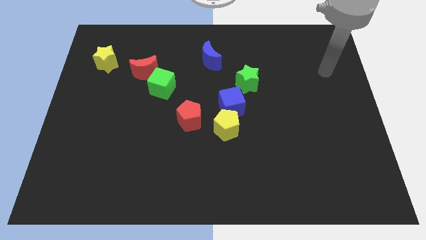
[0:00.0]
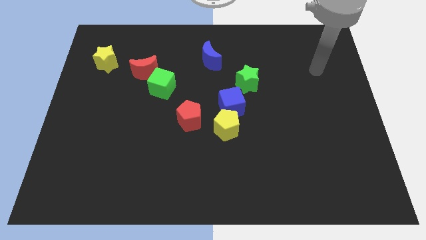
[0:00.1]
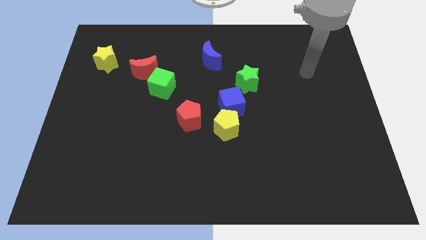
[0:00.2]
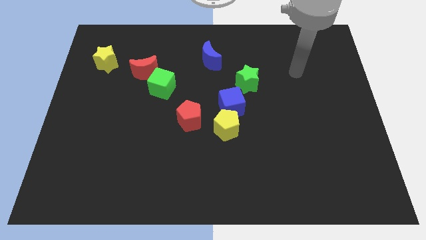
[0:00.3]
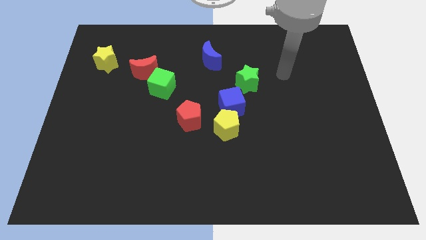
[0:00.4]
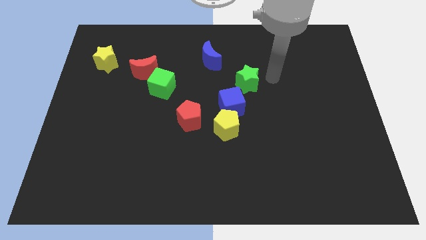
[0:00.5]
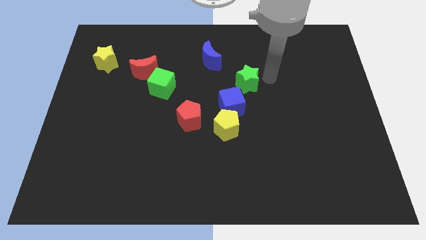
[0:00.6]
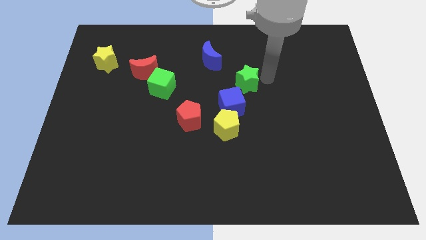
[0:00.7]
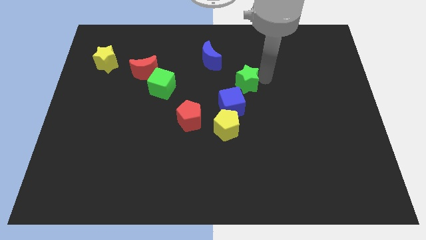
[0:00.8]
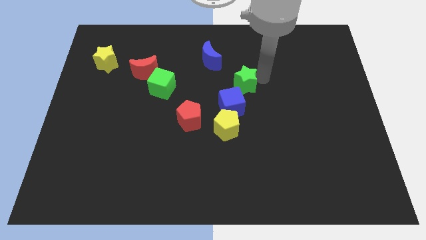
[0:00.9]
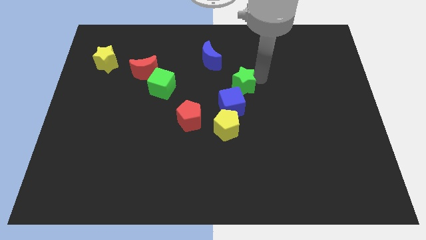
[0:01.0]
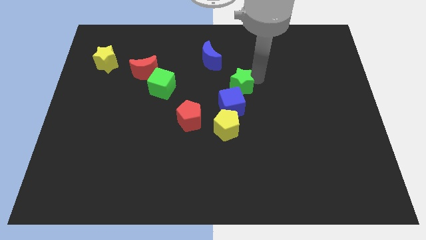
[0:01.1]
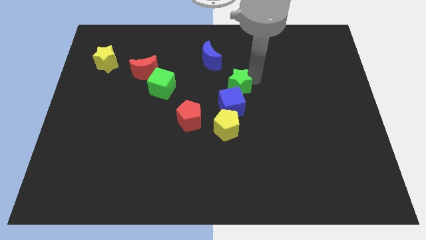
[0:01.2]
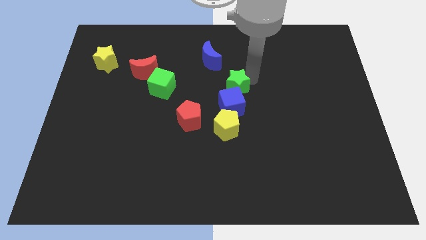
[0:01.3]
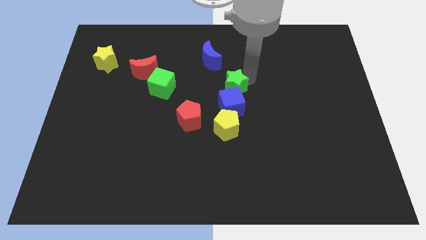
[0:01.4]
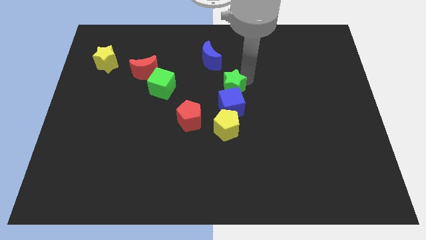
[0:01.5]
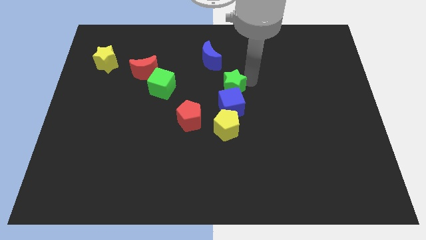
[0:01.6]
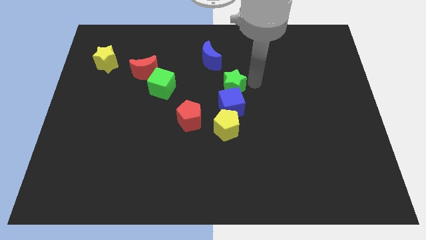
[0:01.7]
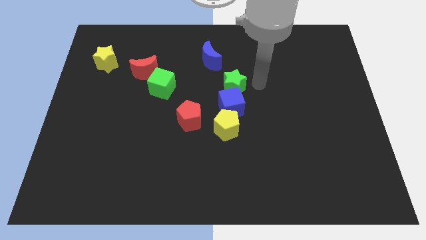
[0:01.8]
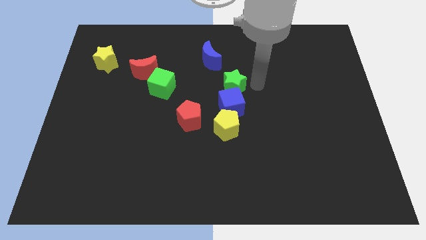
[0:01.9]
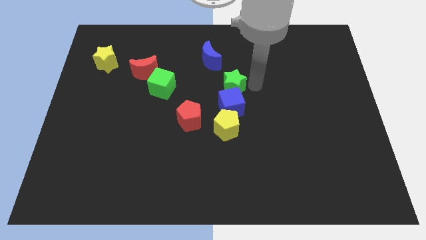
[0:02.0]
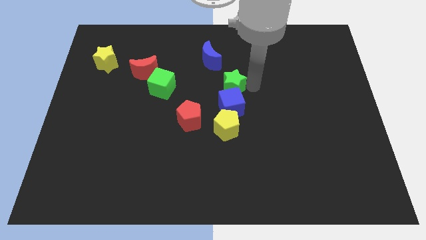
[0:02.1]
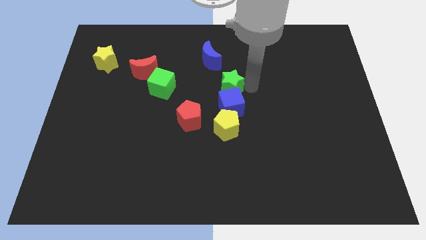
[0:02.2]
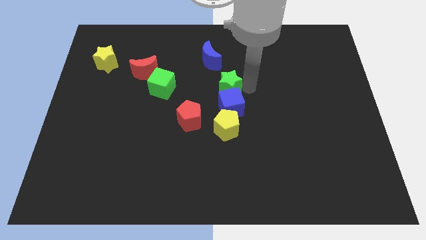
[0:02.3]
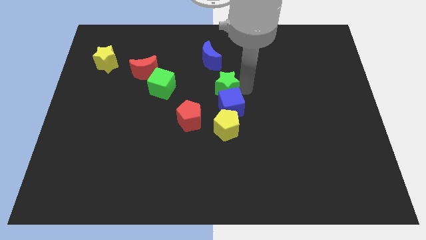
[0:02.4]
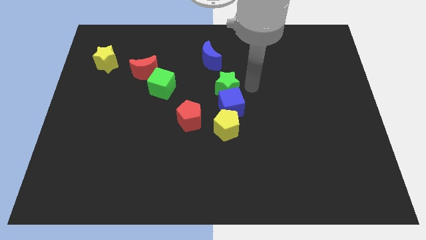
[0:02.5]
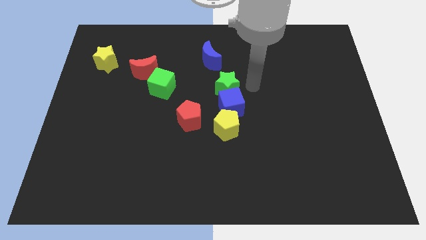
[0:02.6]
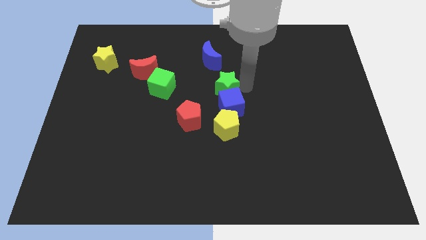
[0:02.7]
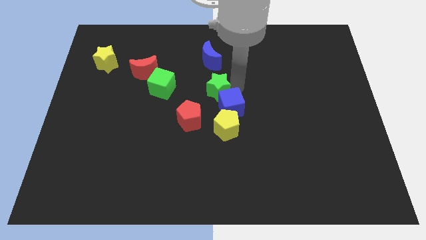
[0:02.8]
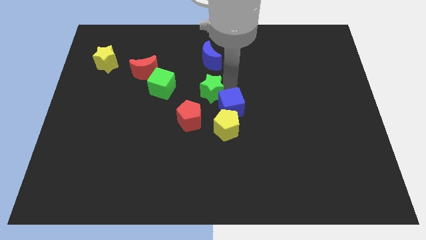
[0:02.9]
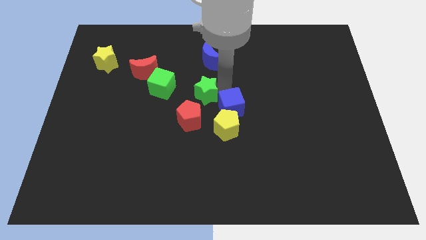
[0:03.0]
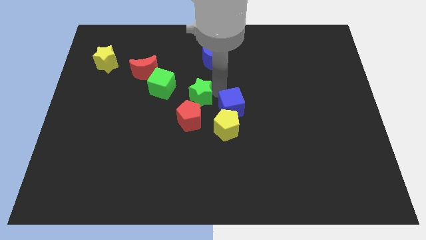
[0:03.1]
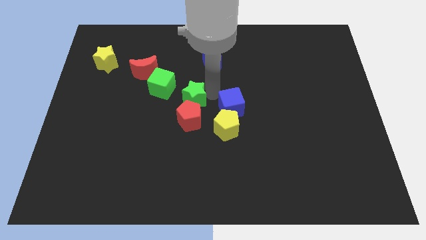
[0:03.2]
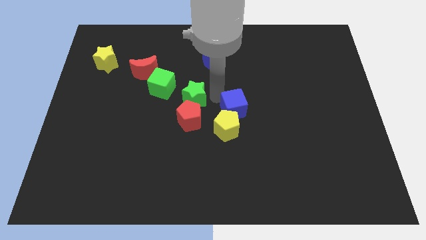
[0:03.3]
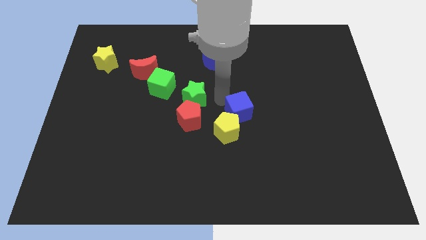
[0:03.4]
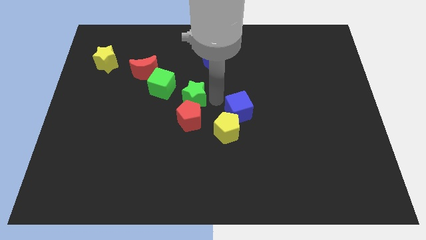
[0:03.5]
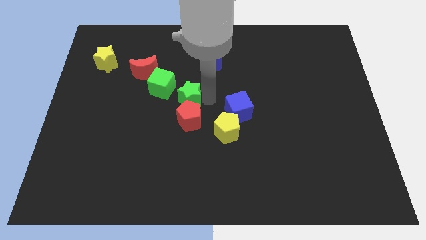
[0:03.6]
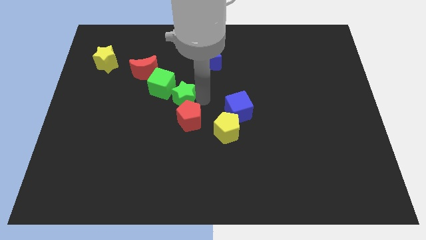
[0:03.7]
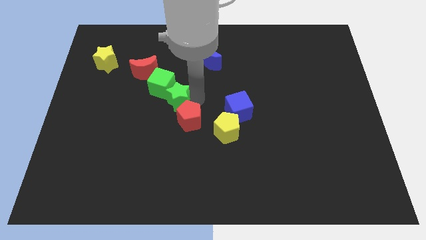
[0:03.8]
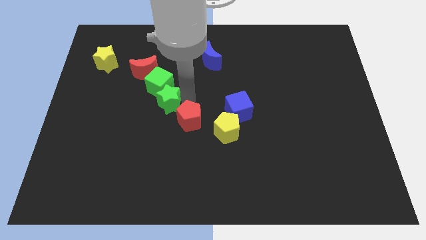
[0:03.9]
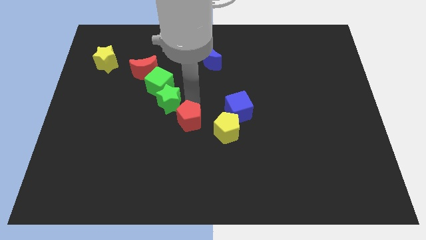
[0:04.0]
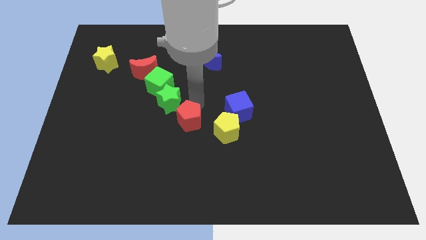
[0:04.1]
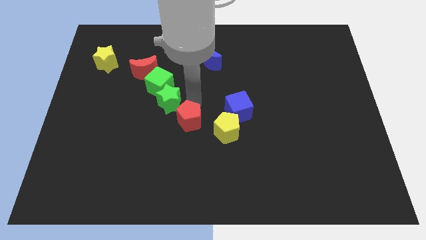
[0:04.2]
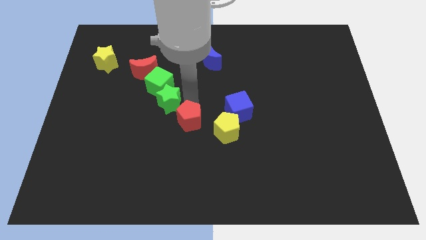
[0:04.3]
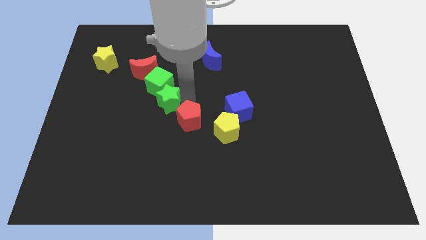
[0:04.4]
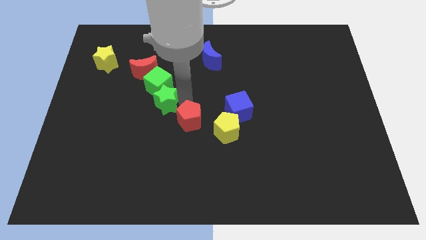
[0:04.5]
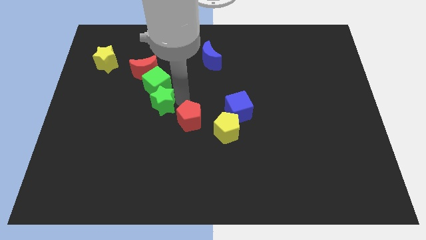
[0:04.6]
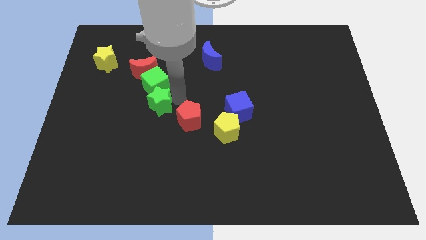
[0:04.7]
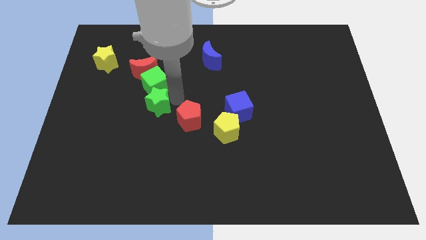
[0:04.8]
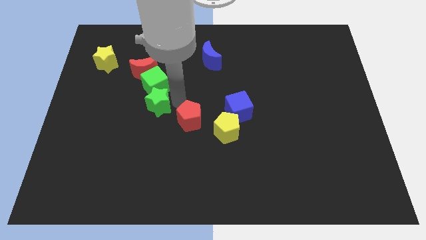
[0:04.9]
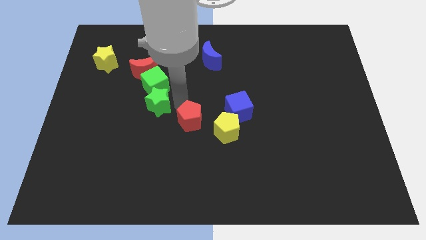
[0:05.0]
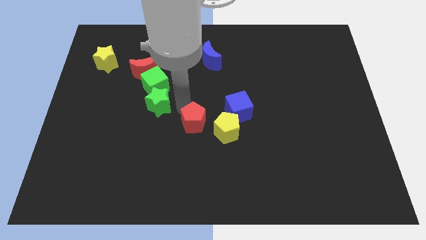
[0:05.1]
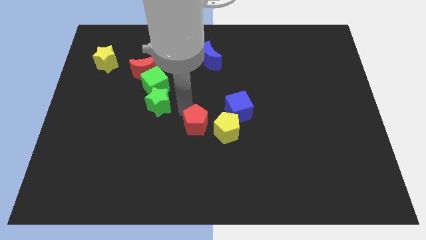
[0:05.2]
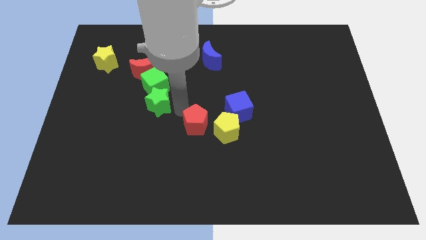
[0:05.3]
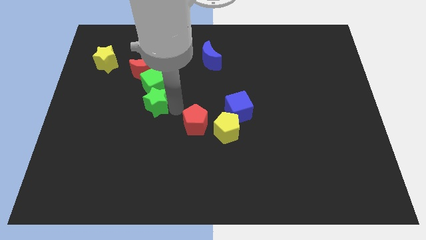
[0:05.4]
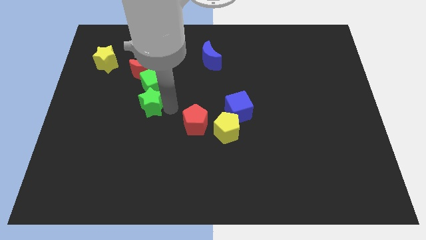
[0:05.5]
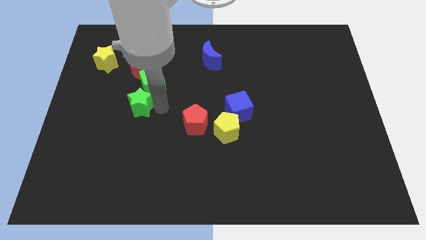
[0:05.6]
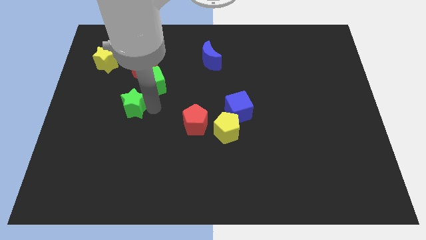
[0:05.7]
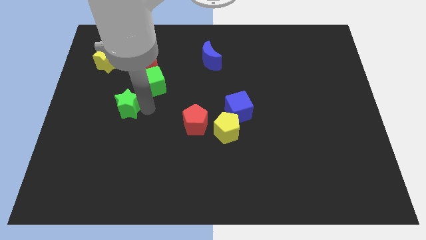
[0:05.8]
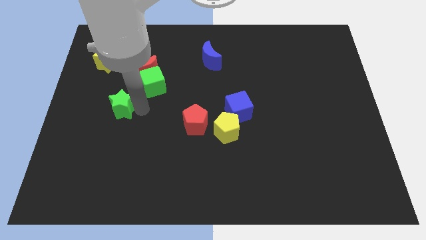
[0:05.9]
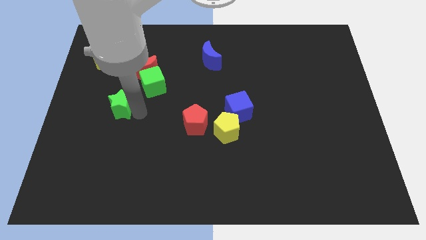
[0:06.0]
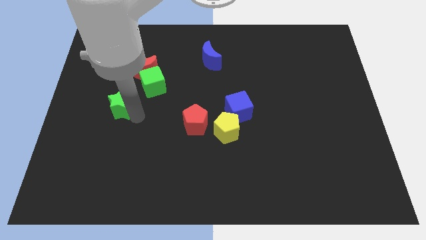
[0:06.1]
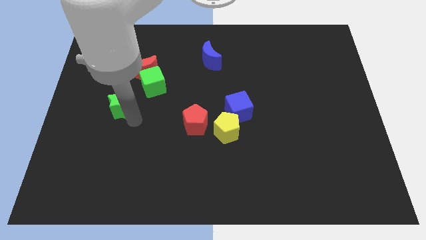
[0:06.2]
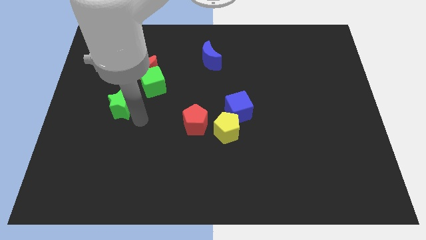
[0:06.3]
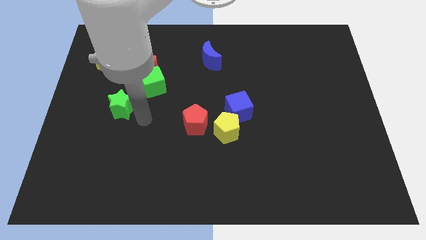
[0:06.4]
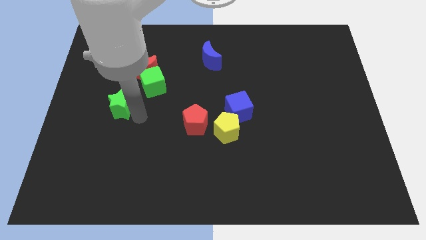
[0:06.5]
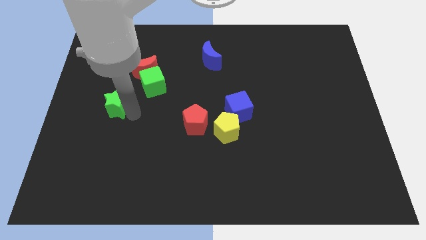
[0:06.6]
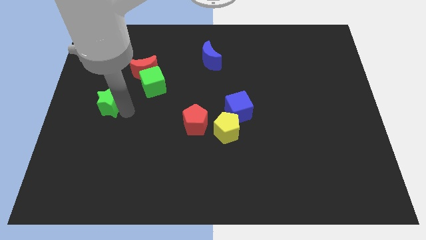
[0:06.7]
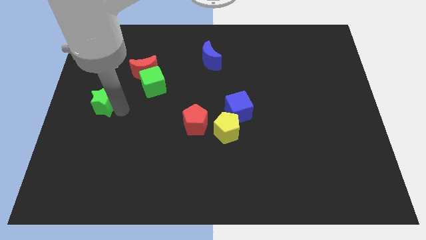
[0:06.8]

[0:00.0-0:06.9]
put the green star to the center left
